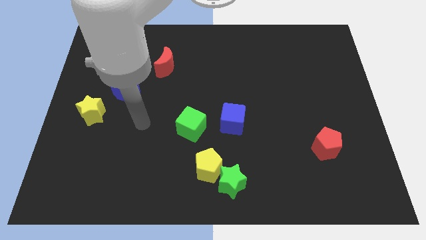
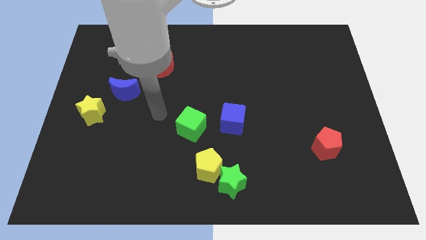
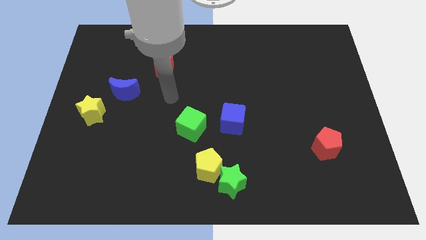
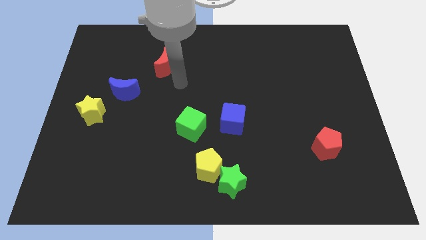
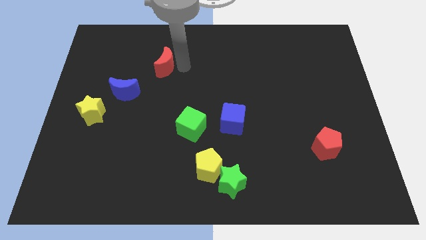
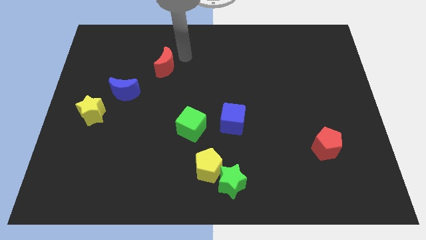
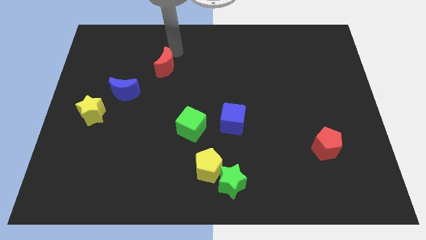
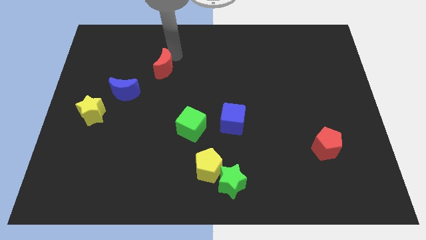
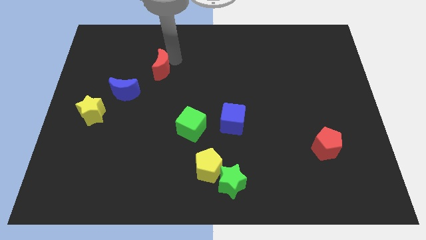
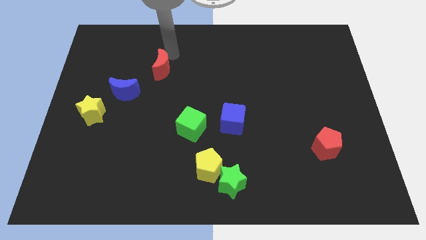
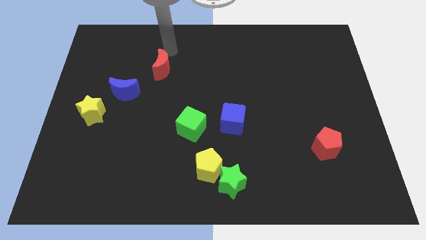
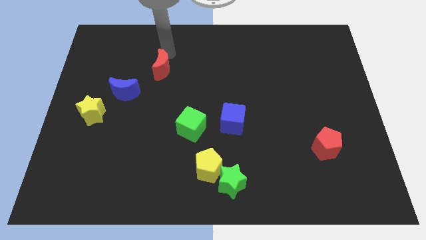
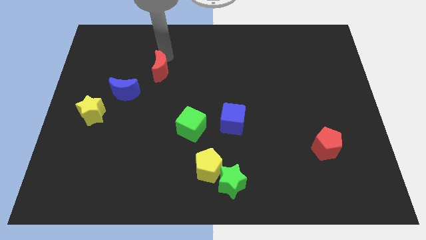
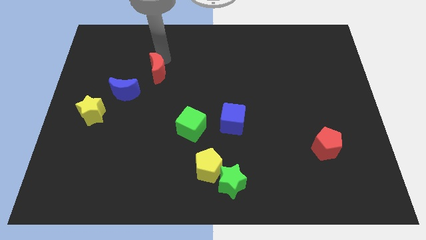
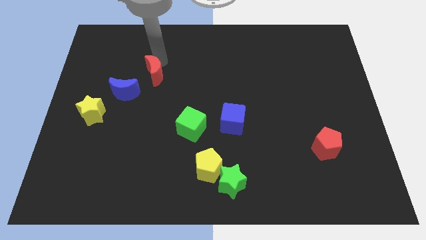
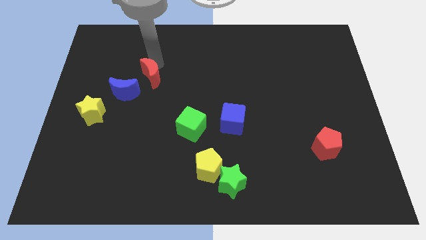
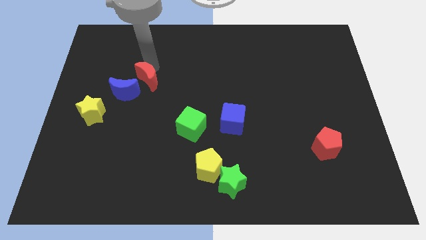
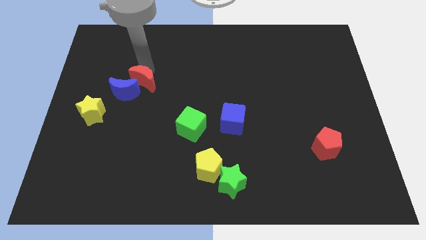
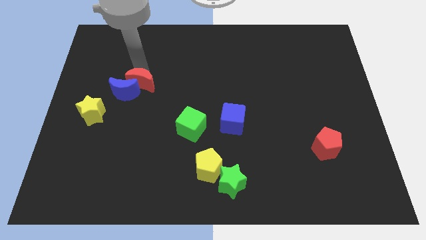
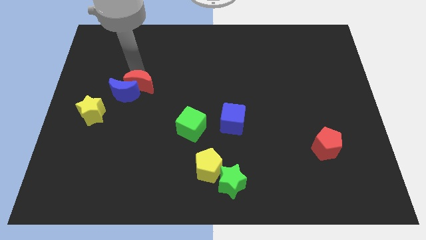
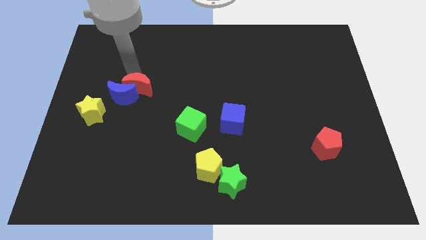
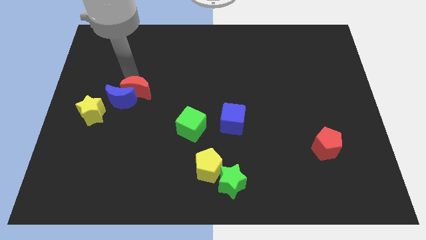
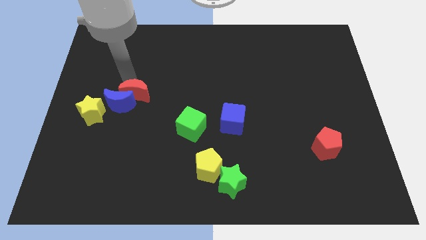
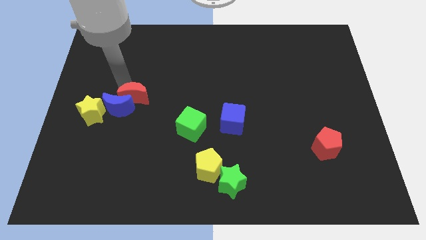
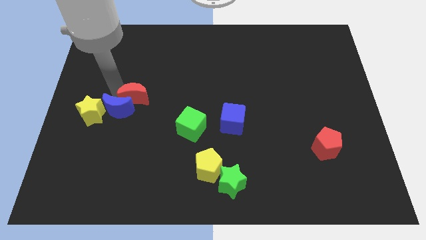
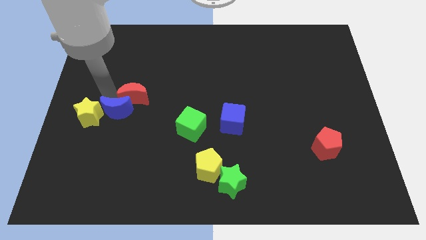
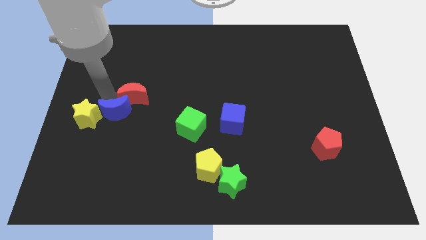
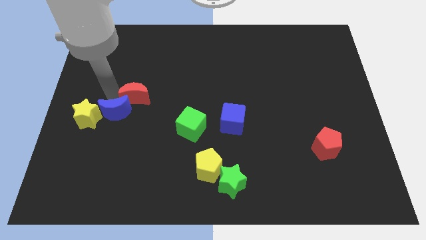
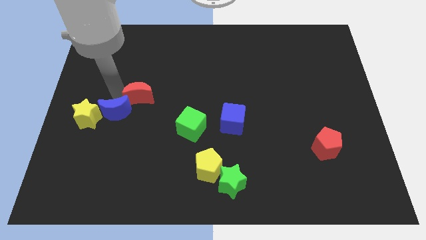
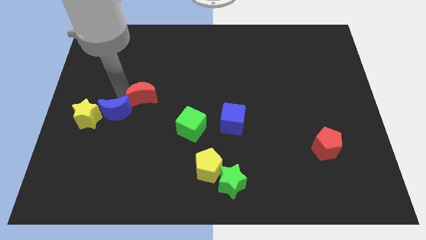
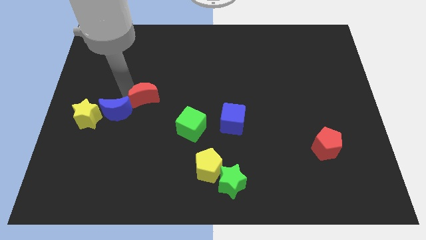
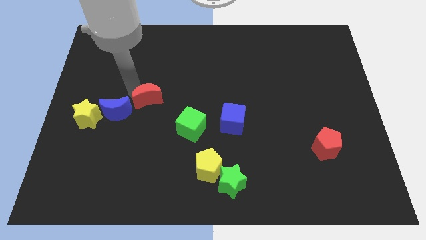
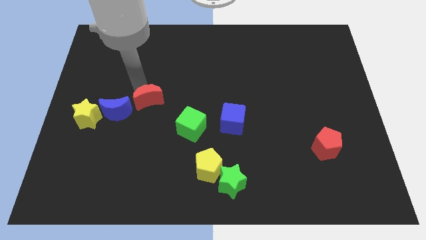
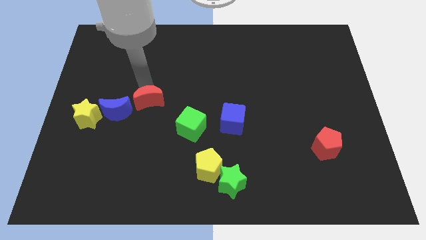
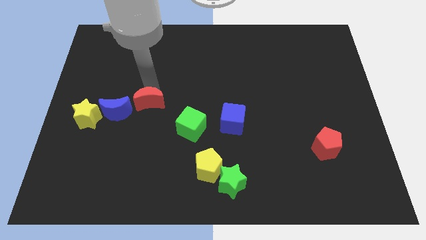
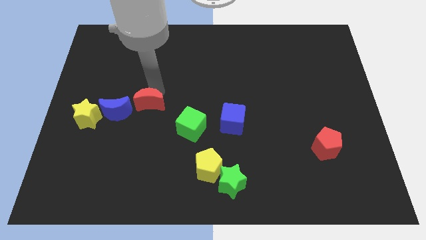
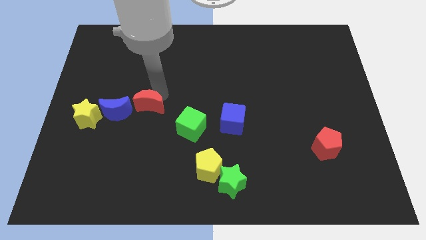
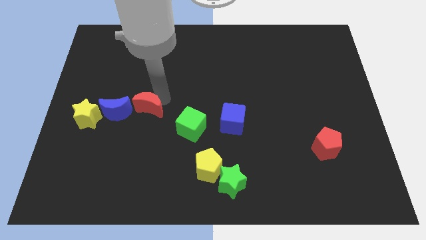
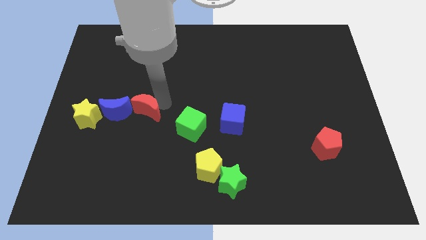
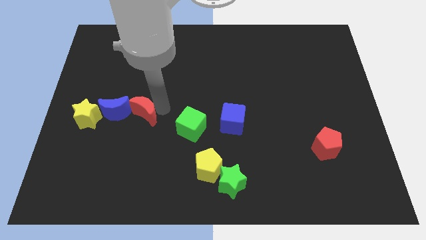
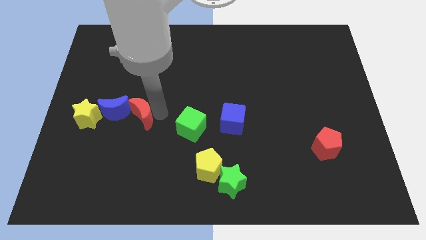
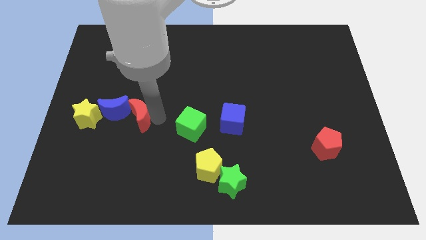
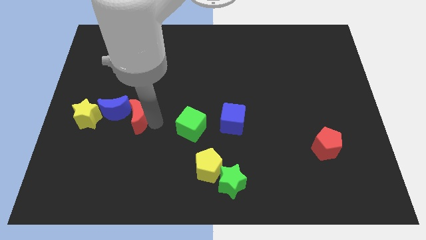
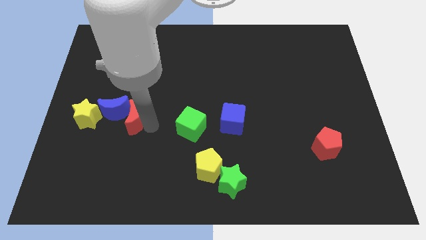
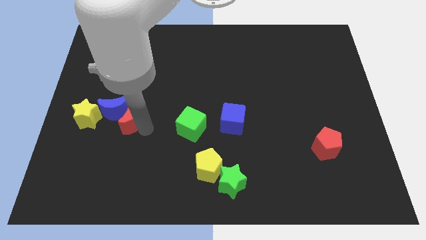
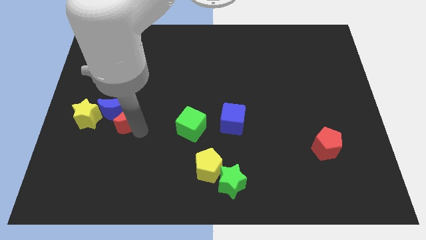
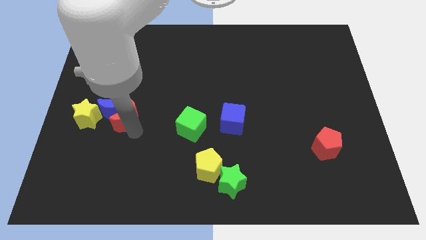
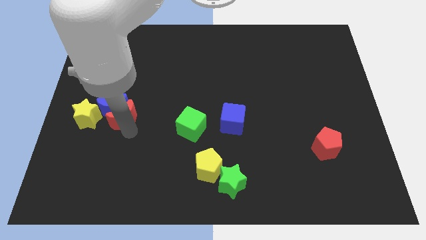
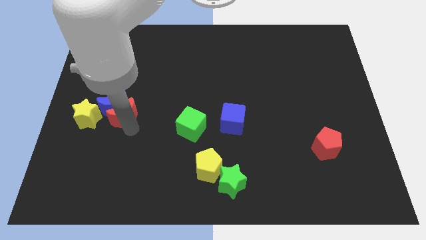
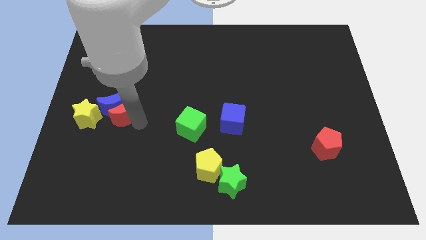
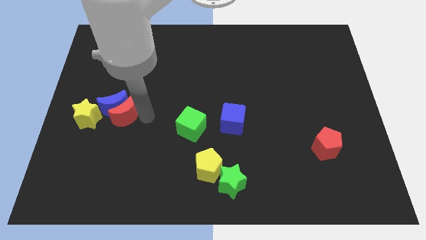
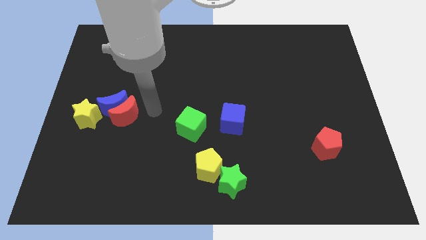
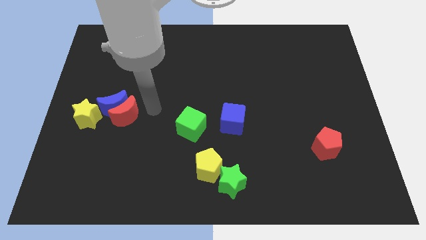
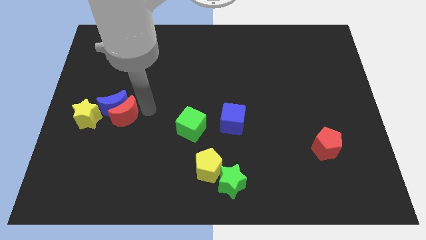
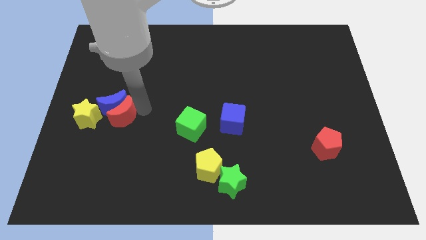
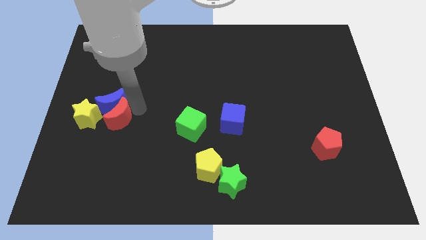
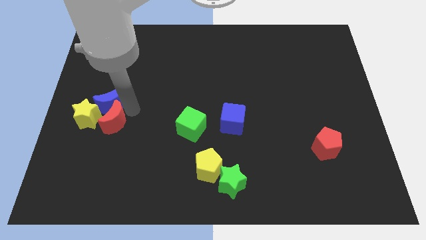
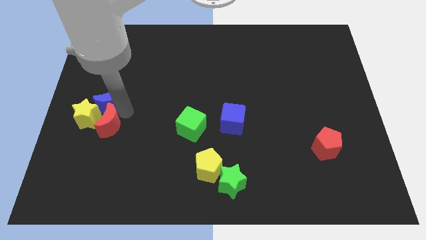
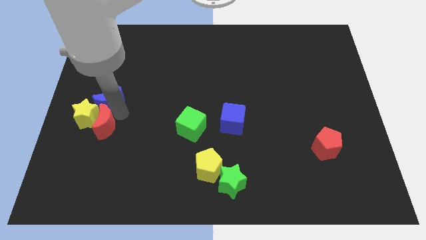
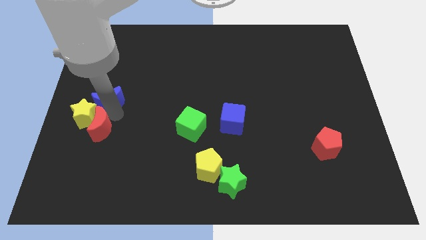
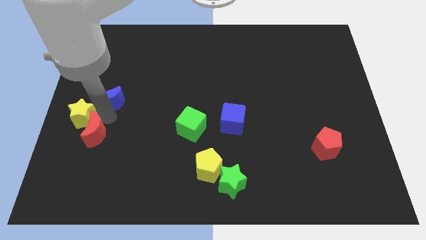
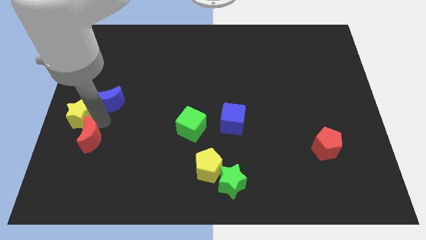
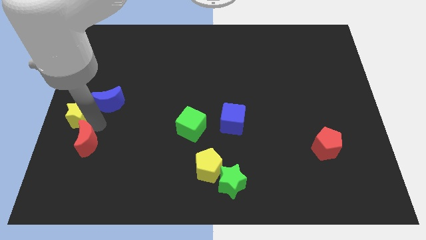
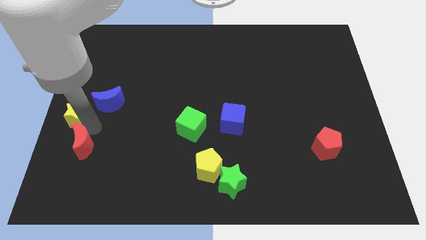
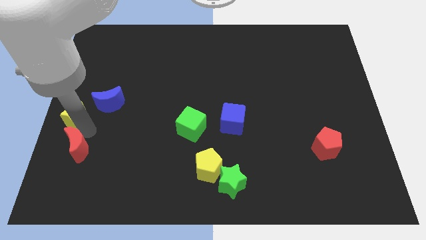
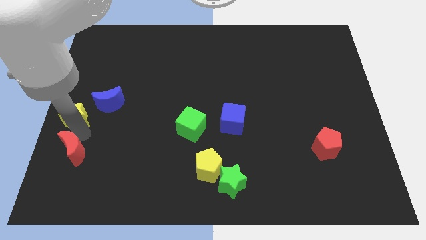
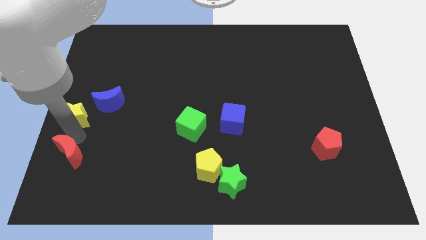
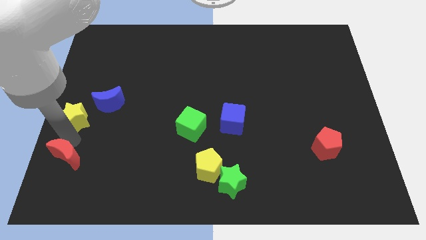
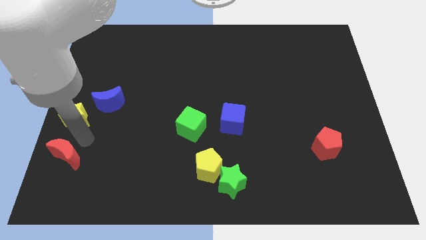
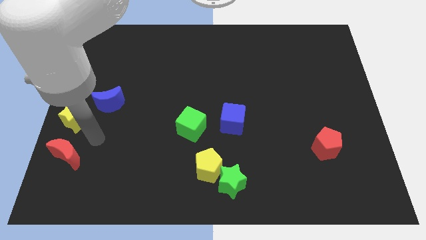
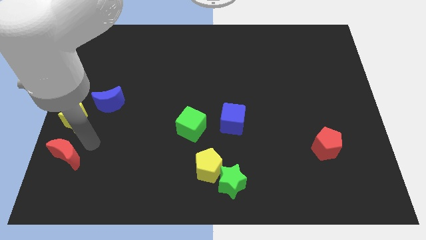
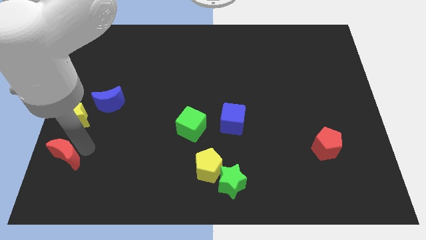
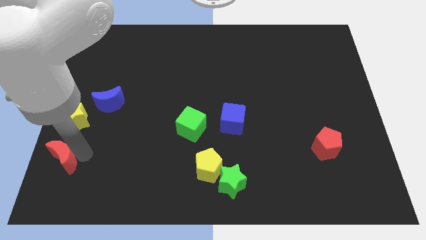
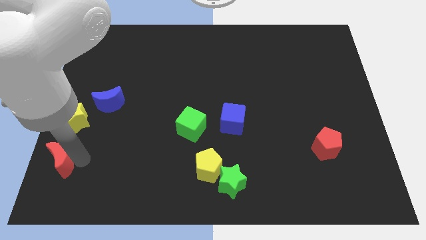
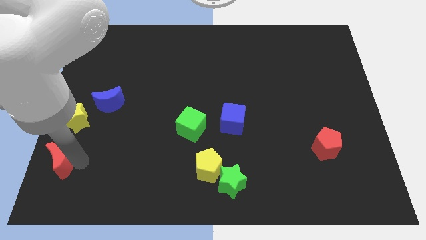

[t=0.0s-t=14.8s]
put the red moon to the bottom left
